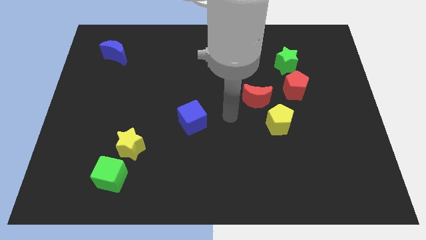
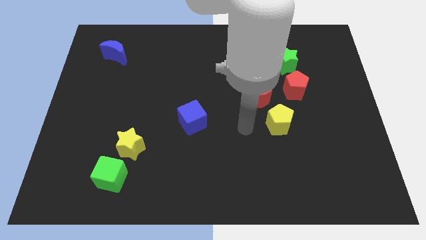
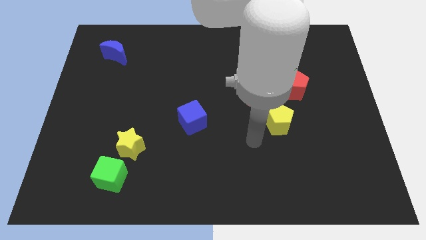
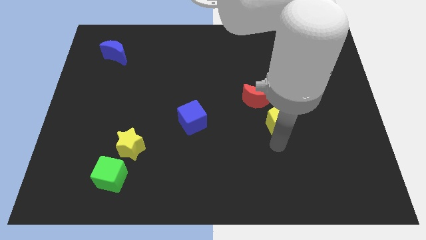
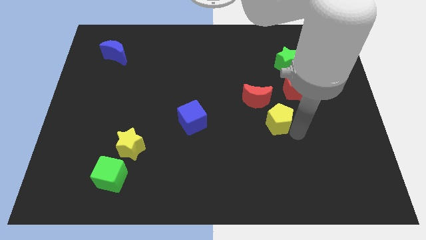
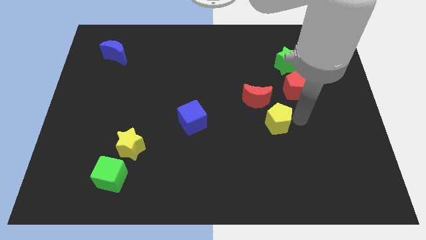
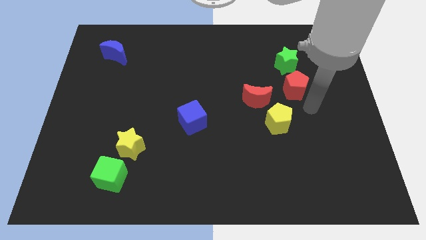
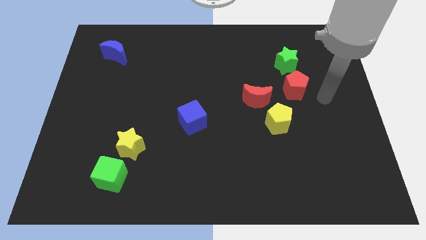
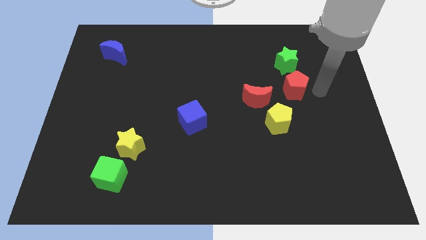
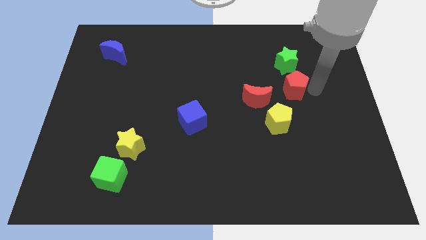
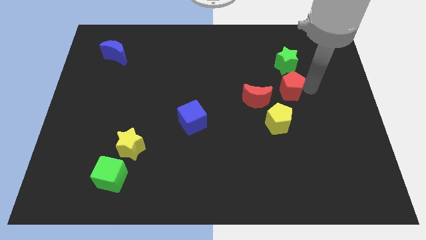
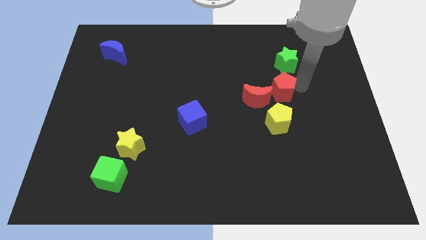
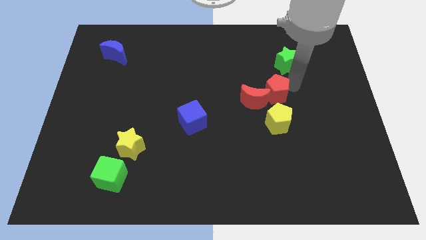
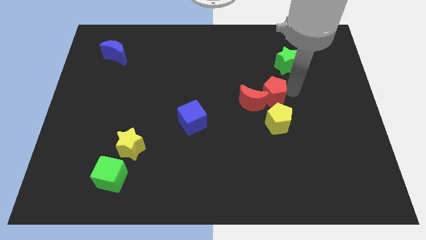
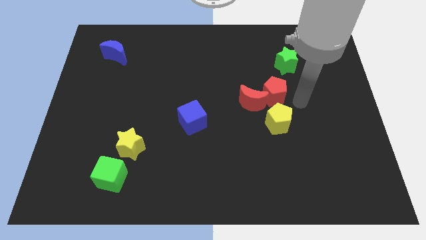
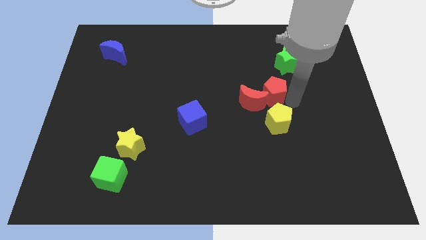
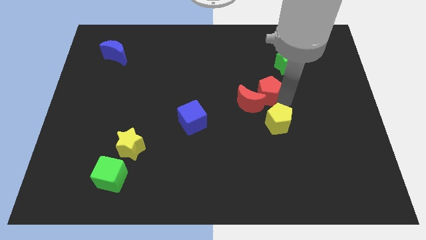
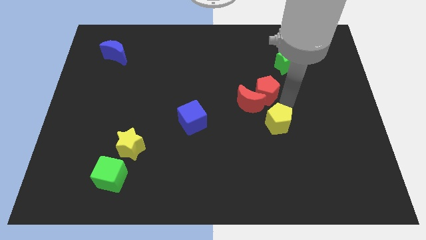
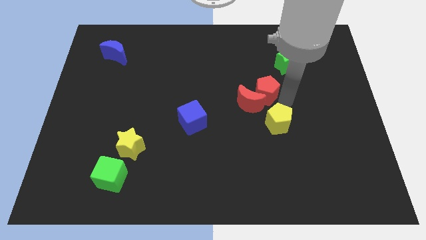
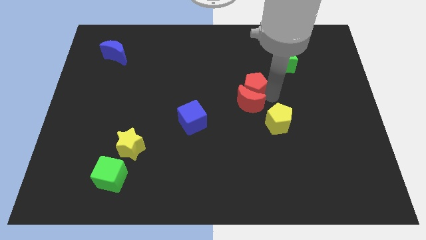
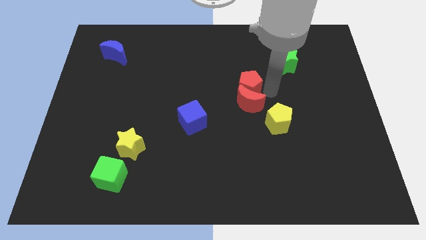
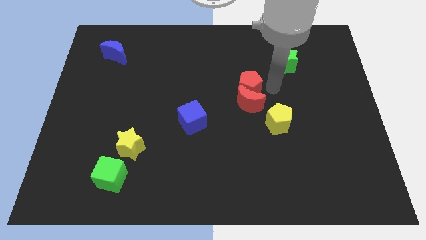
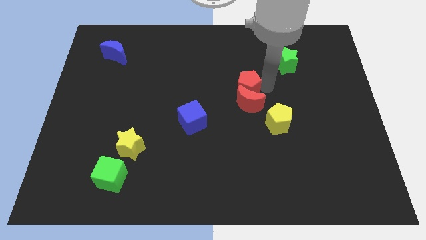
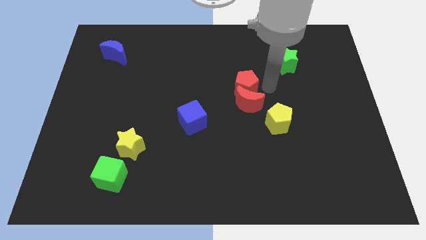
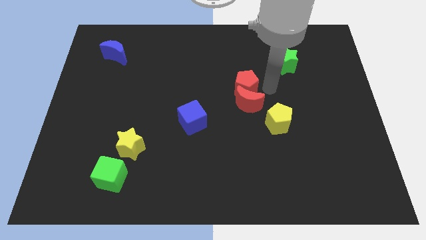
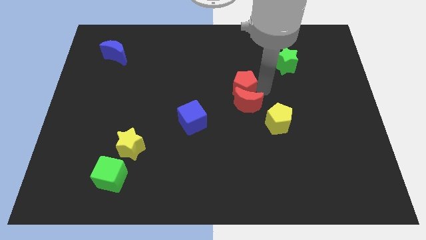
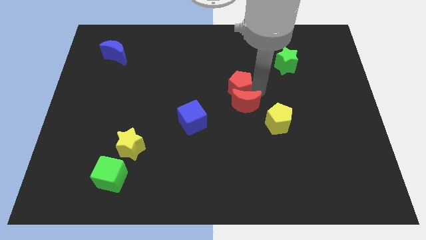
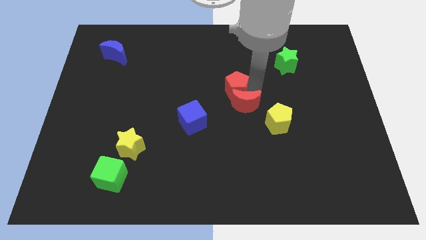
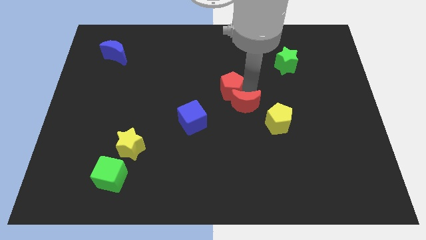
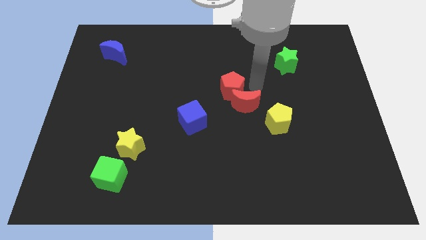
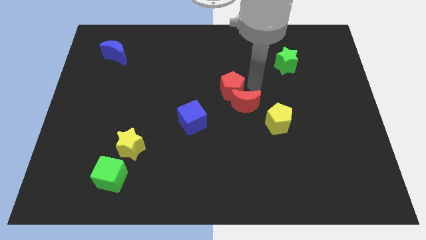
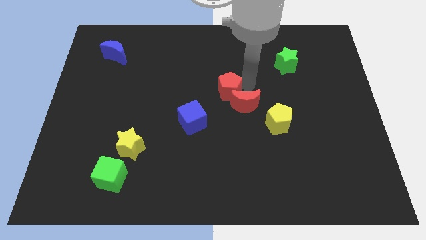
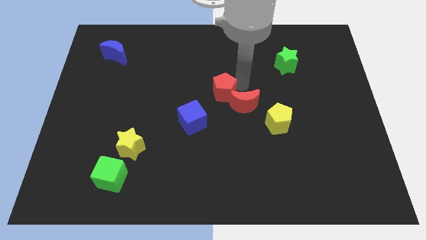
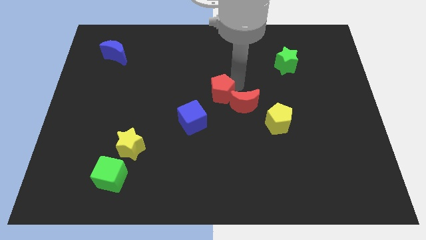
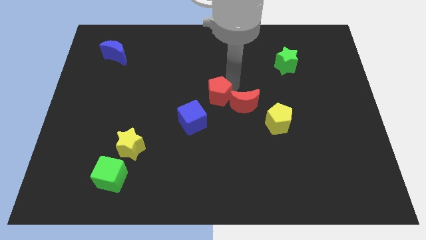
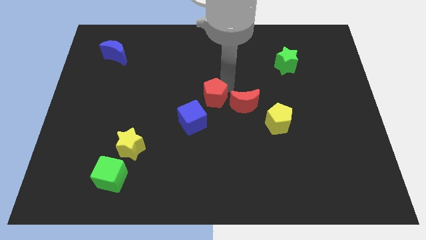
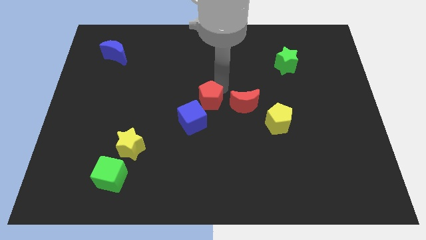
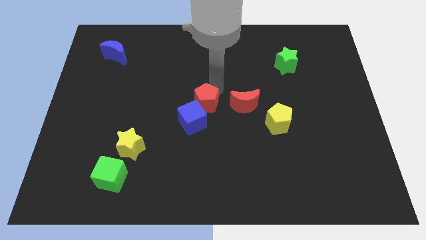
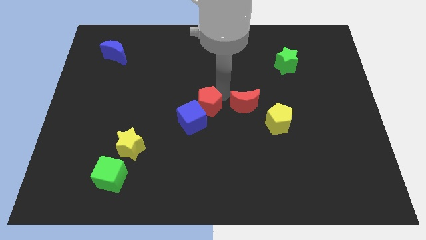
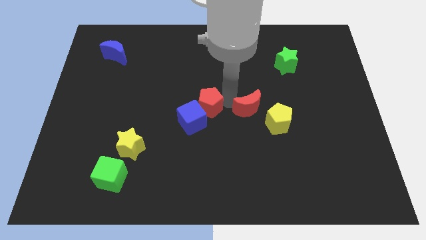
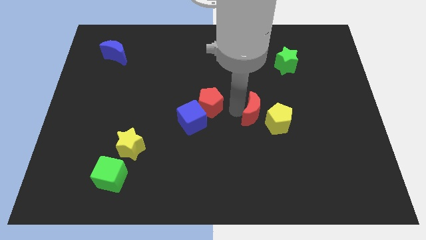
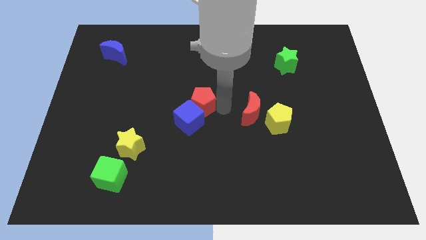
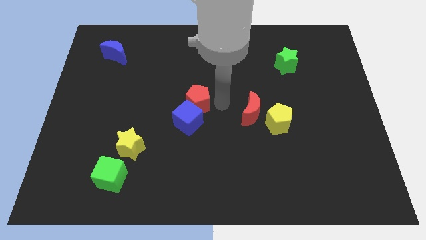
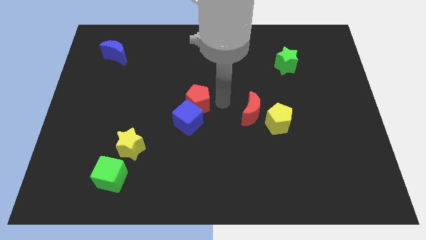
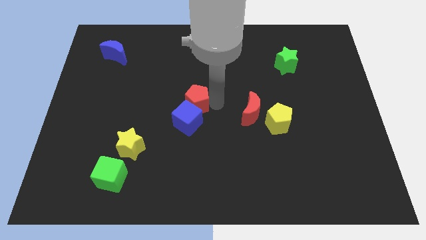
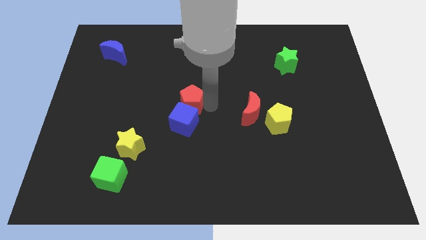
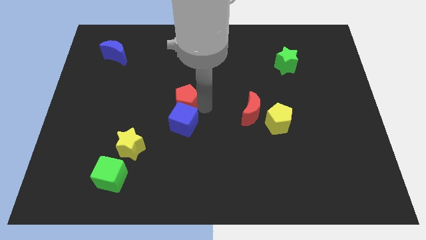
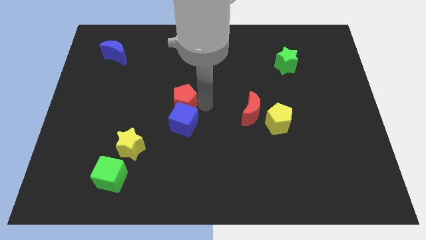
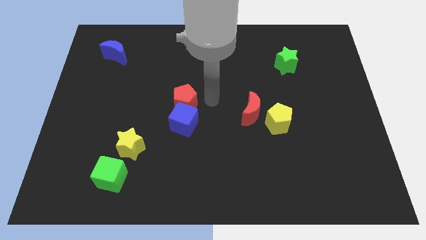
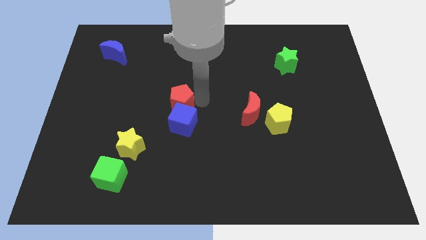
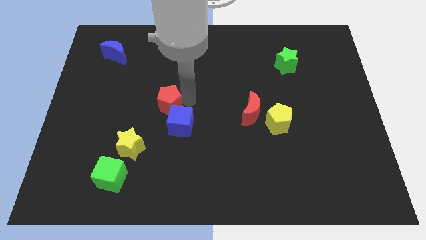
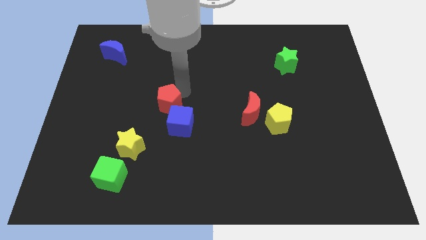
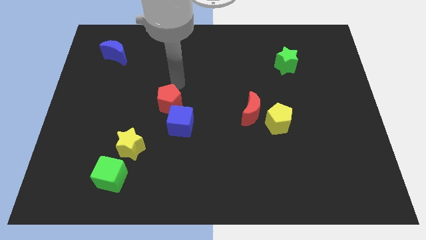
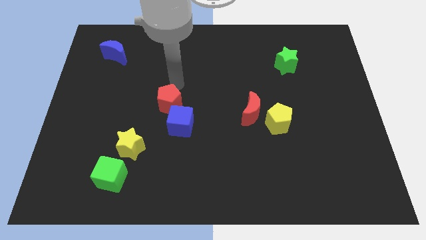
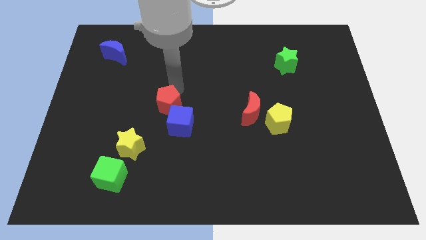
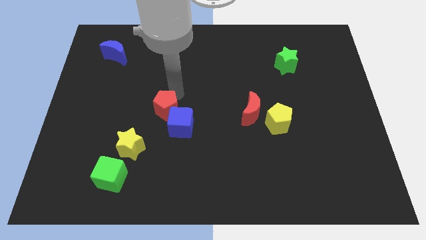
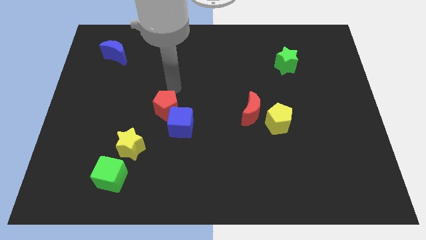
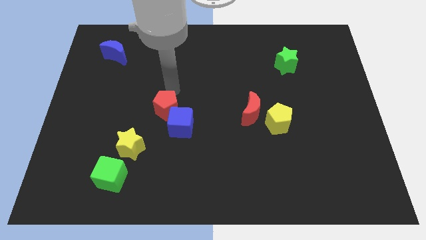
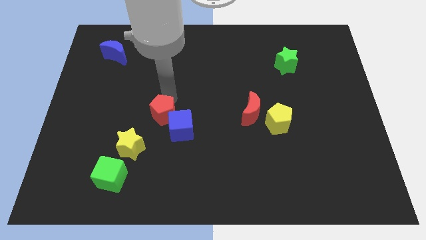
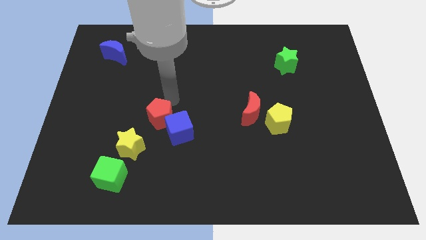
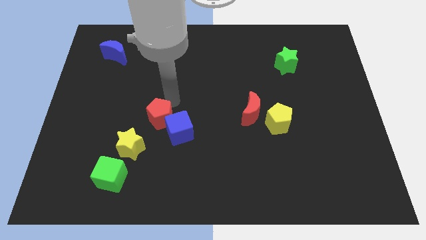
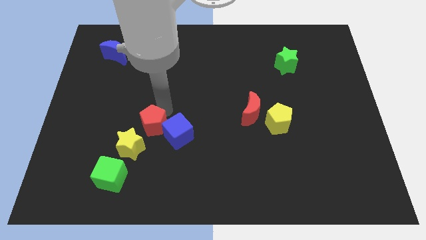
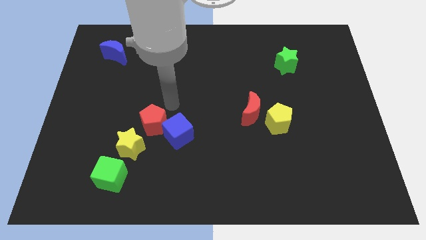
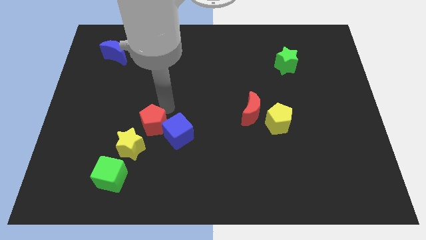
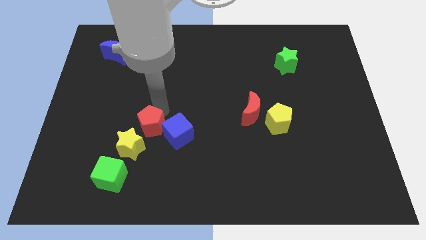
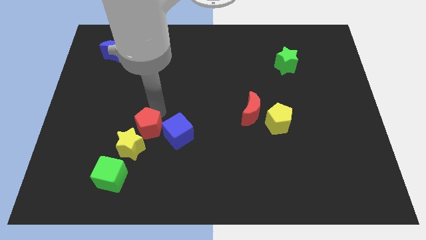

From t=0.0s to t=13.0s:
put the red pentagon to the yellow star

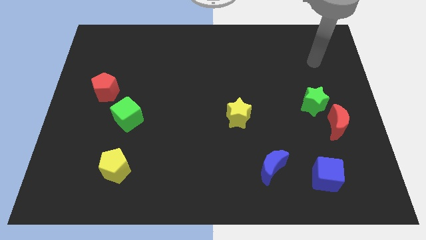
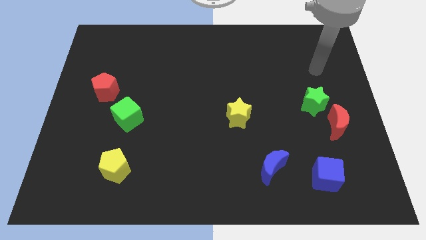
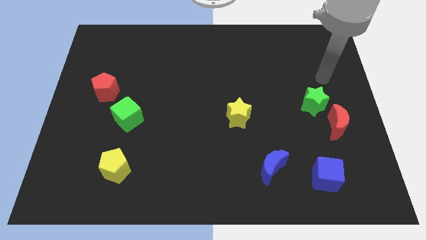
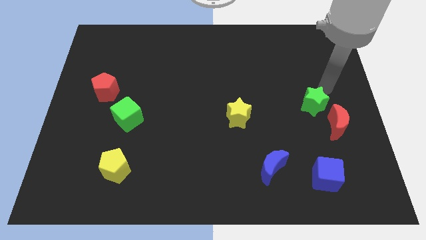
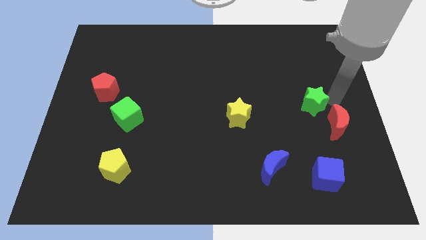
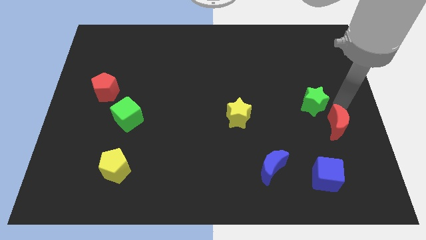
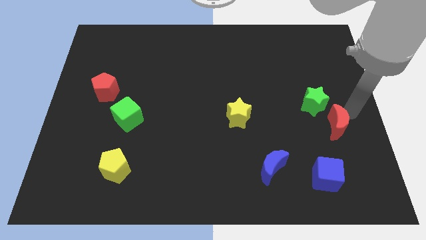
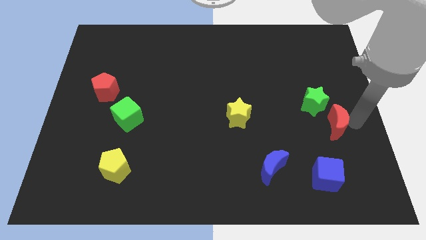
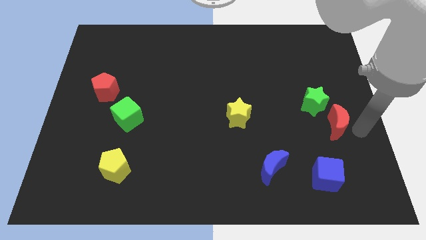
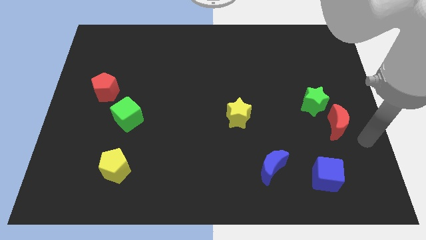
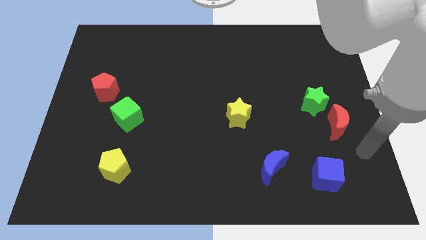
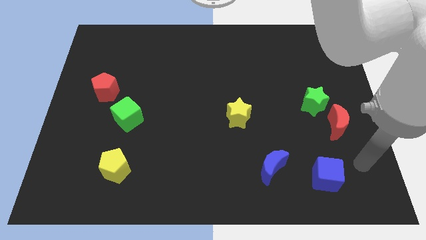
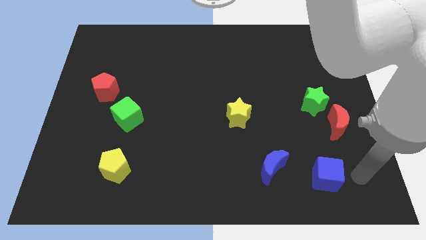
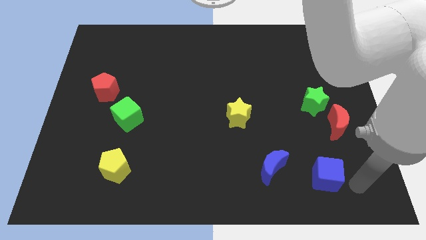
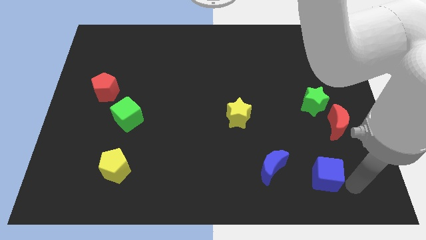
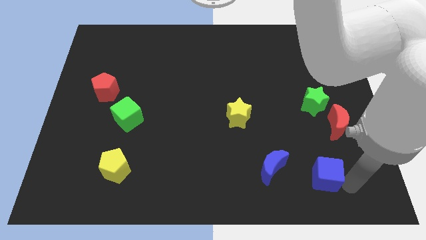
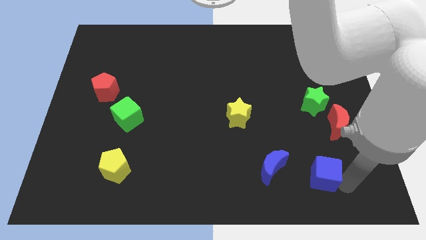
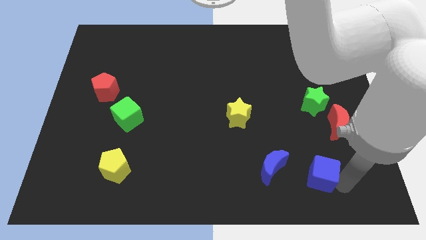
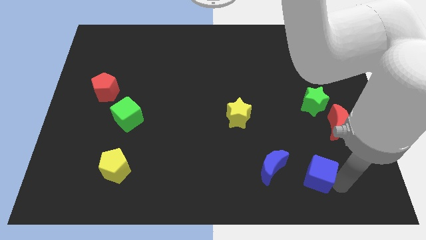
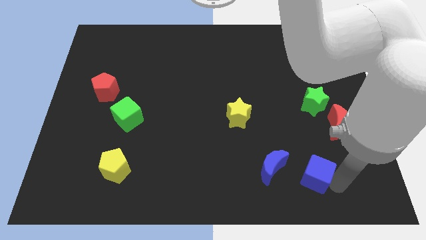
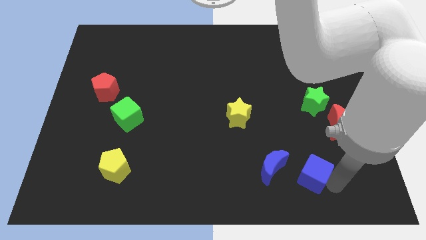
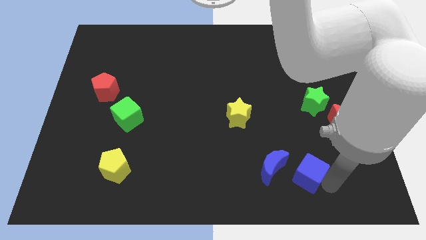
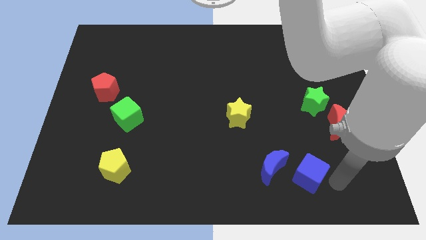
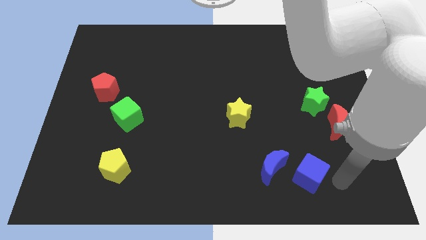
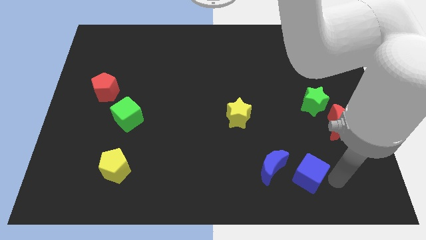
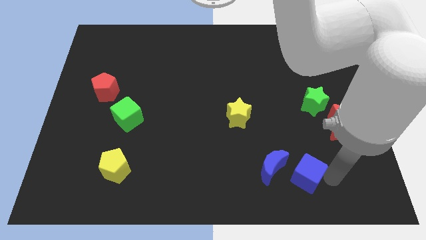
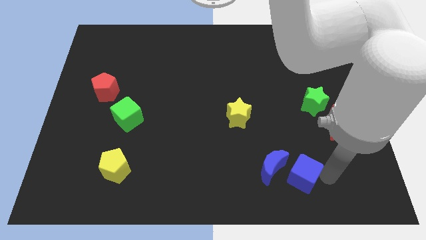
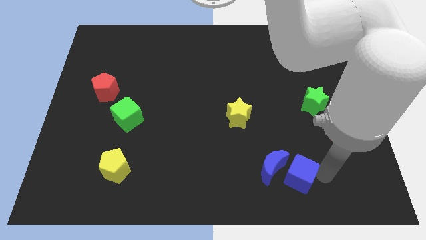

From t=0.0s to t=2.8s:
push the blue cube next to the blue moon
